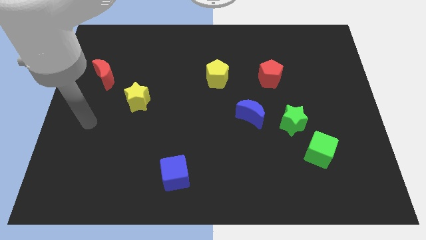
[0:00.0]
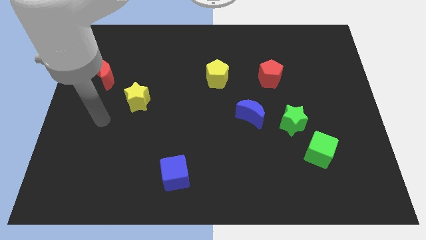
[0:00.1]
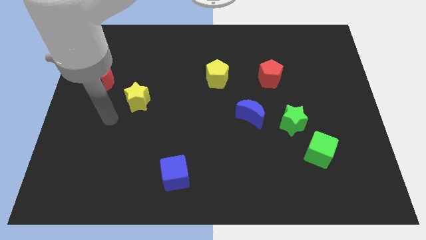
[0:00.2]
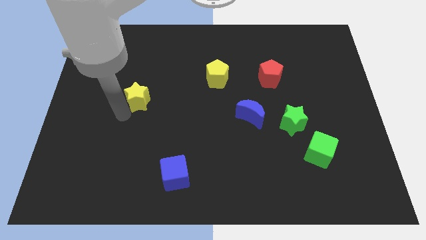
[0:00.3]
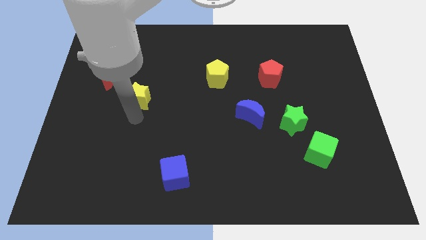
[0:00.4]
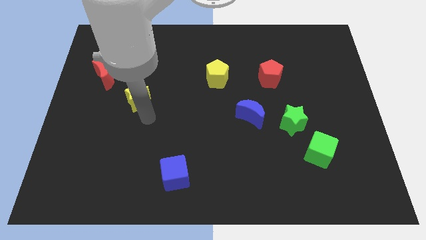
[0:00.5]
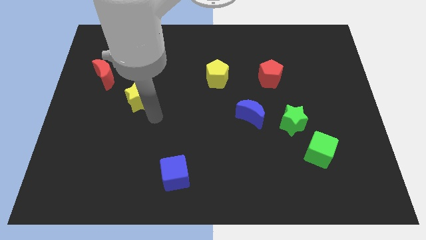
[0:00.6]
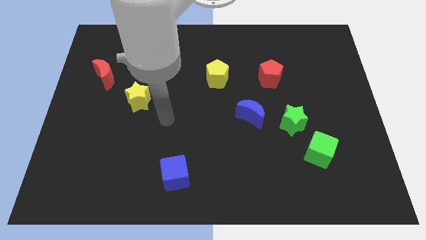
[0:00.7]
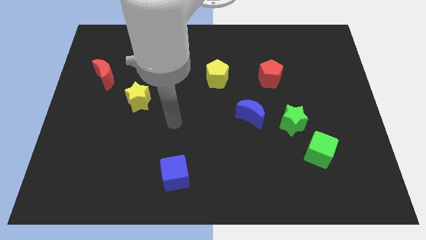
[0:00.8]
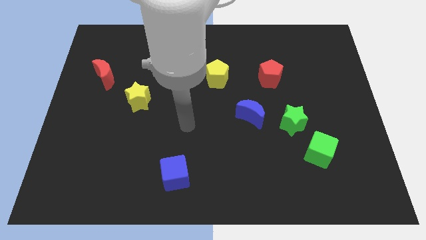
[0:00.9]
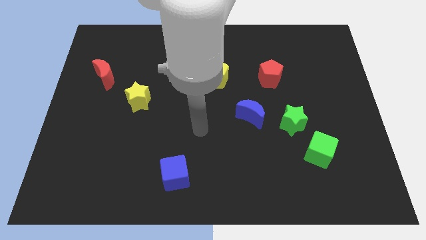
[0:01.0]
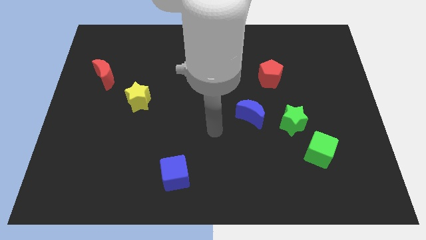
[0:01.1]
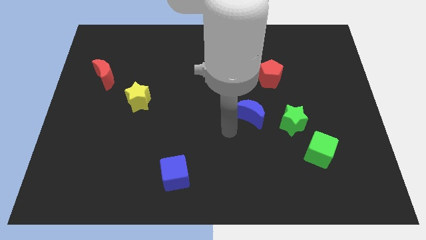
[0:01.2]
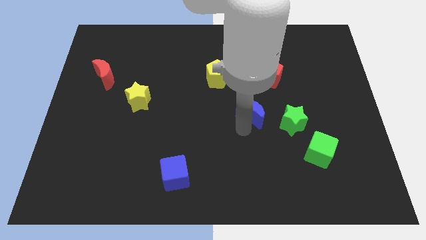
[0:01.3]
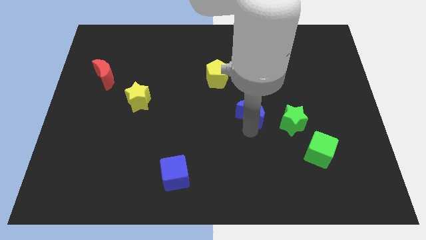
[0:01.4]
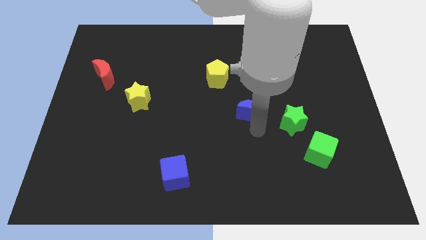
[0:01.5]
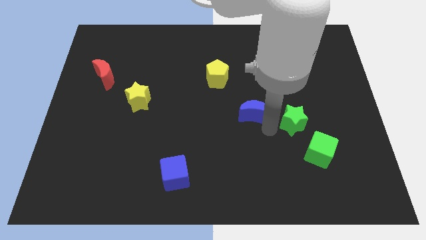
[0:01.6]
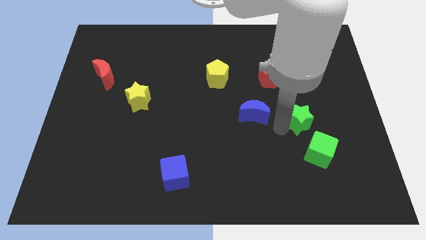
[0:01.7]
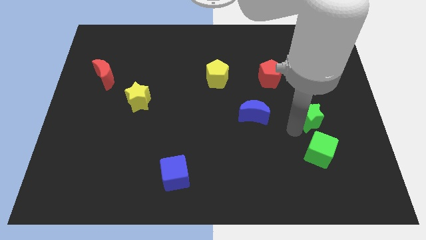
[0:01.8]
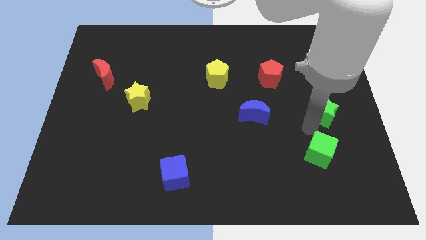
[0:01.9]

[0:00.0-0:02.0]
separate the green cube from the green star

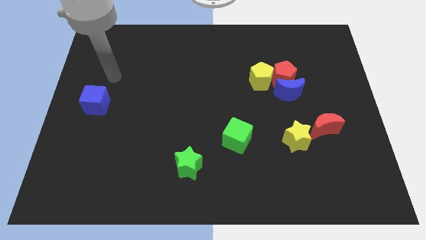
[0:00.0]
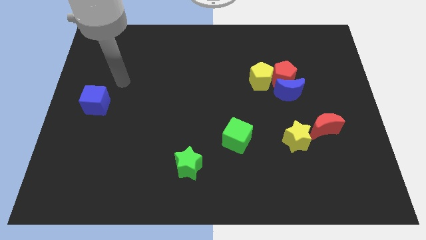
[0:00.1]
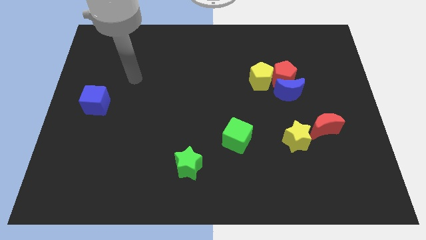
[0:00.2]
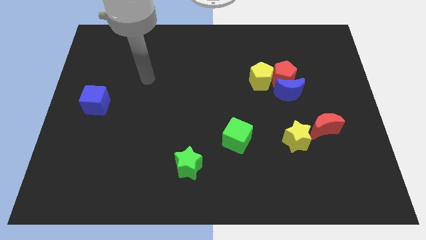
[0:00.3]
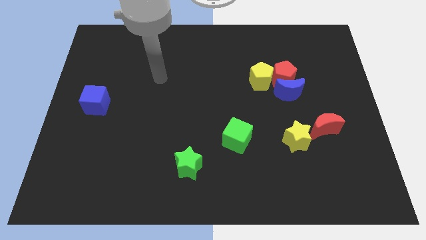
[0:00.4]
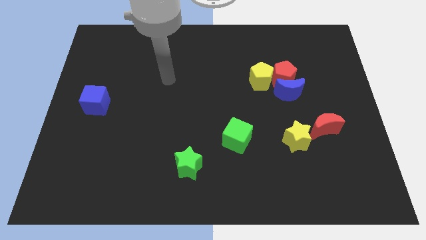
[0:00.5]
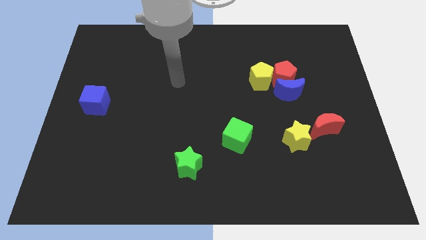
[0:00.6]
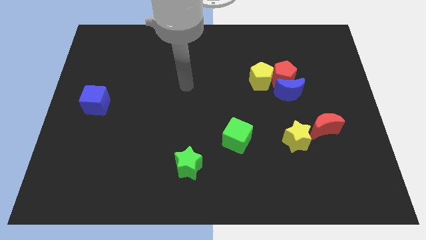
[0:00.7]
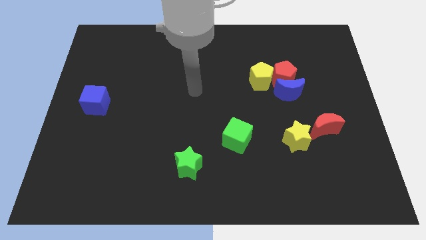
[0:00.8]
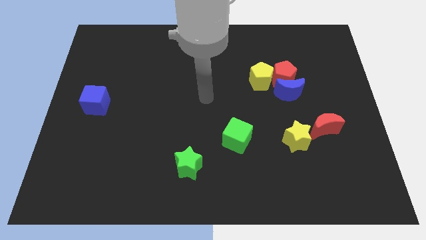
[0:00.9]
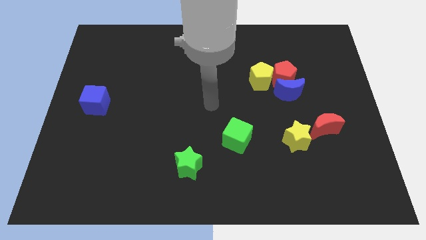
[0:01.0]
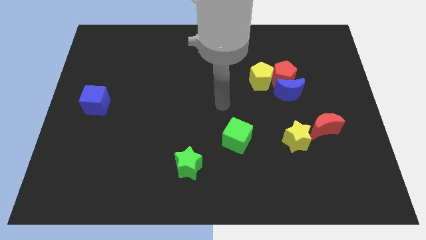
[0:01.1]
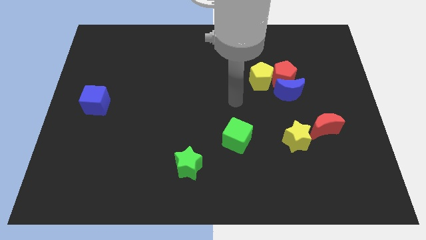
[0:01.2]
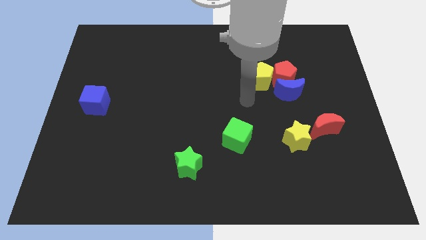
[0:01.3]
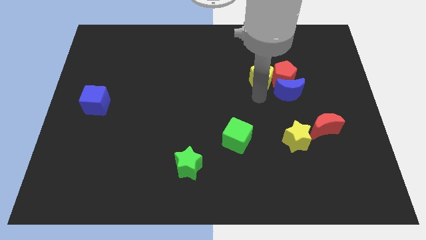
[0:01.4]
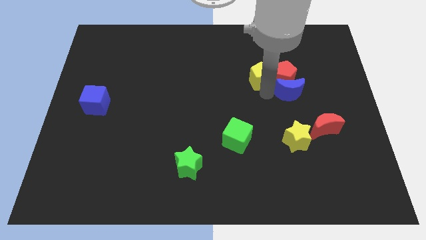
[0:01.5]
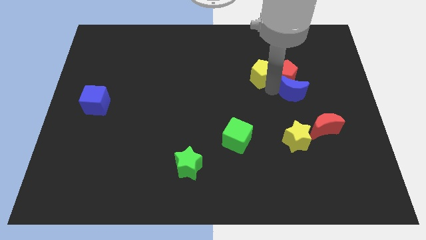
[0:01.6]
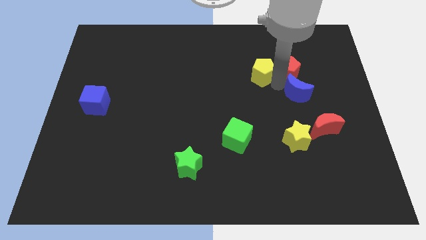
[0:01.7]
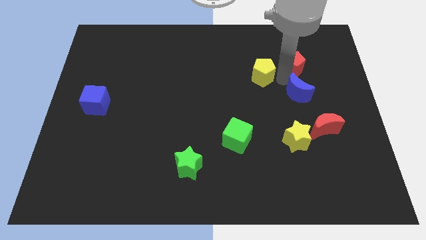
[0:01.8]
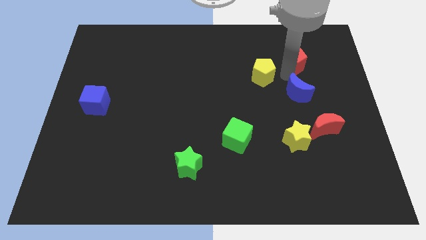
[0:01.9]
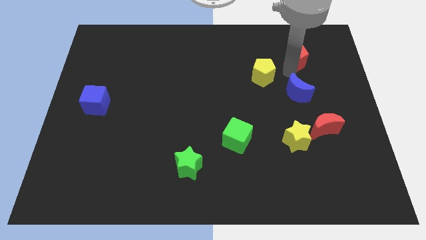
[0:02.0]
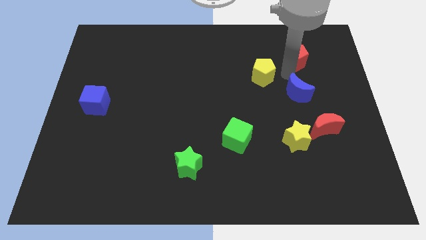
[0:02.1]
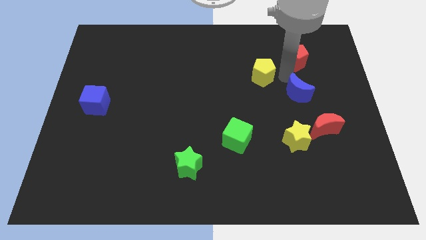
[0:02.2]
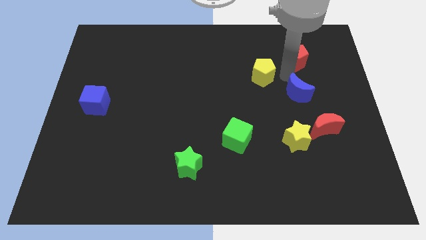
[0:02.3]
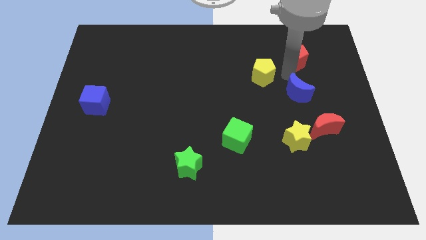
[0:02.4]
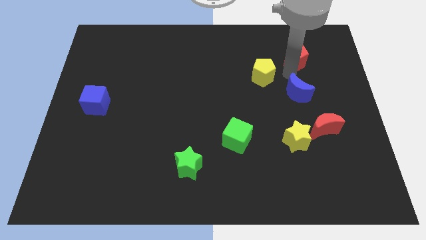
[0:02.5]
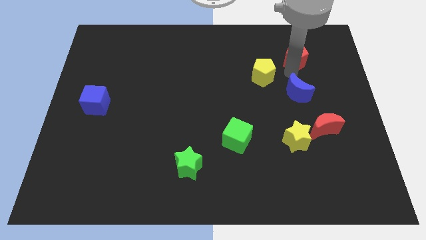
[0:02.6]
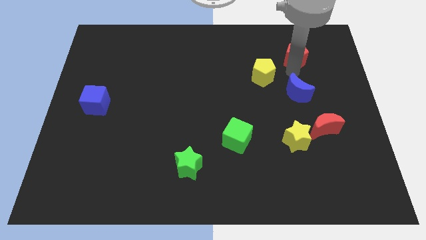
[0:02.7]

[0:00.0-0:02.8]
move the red pentagon away from the blue moon and yellow pentagon

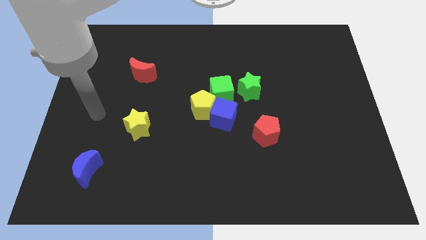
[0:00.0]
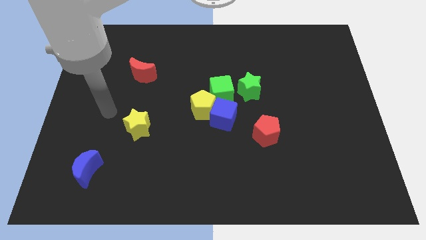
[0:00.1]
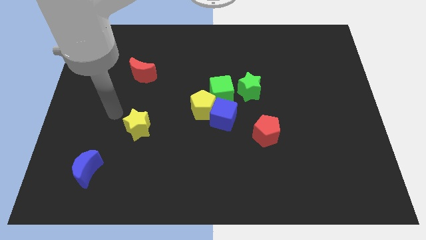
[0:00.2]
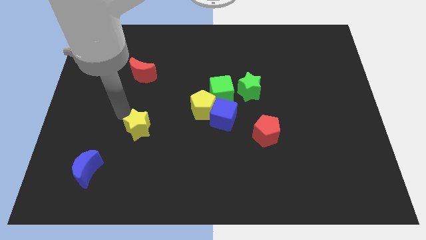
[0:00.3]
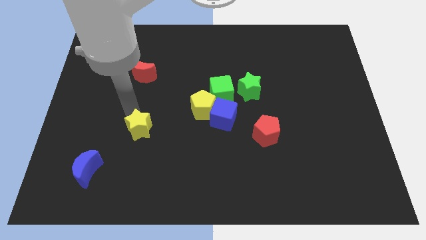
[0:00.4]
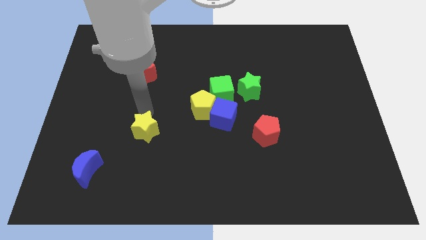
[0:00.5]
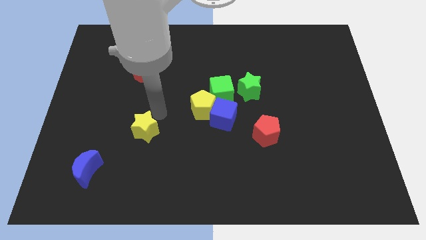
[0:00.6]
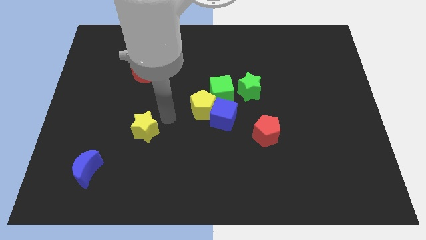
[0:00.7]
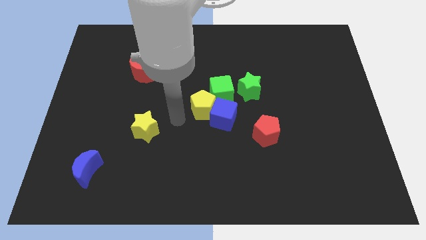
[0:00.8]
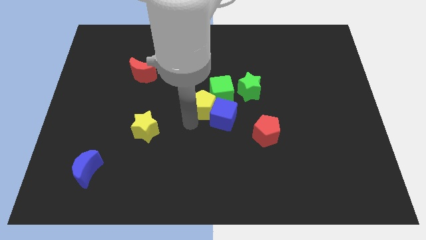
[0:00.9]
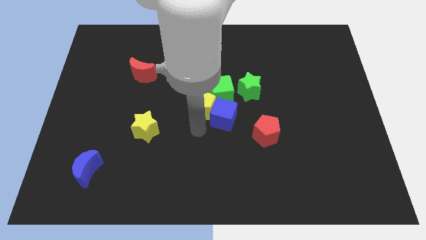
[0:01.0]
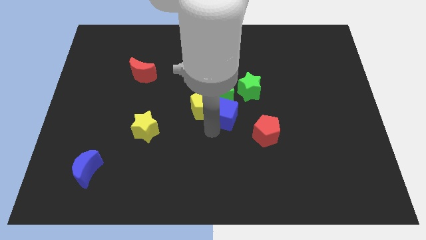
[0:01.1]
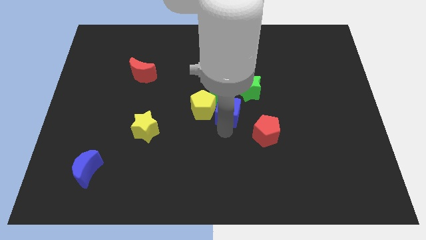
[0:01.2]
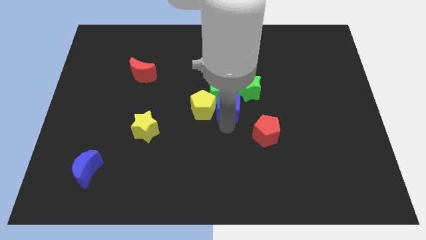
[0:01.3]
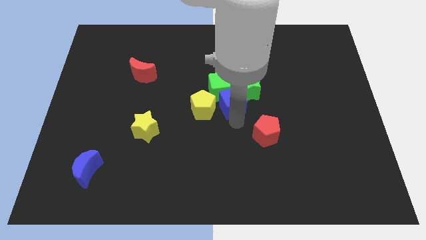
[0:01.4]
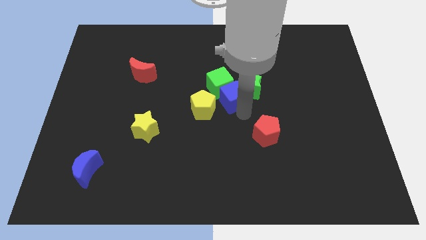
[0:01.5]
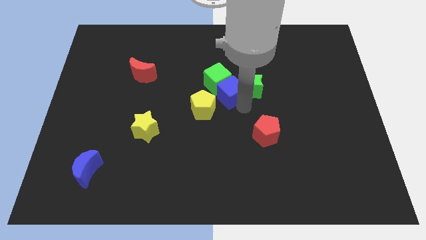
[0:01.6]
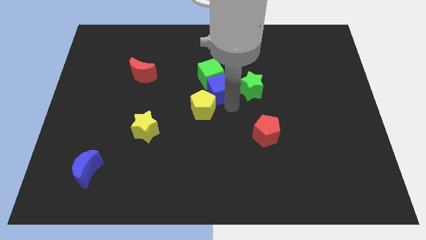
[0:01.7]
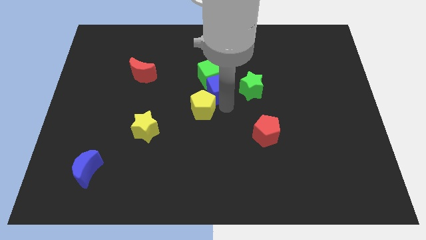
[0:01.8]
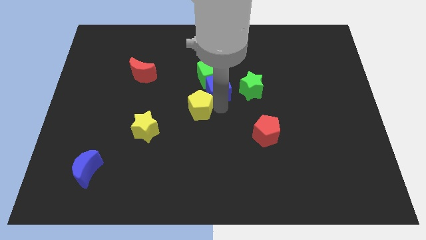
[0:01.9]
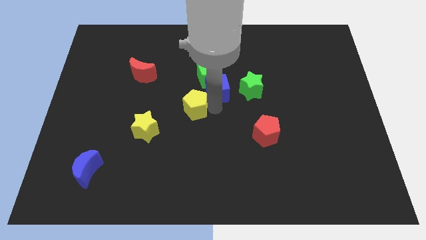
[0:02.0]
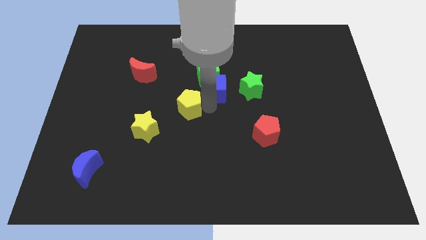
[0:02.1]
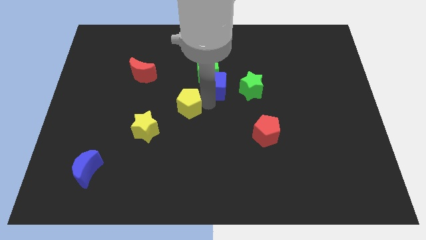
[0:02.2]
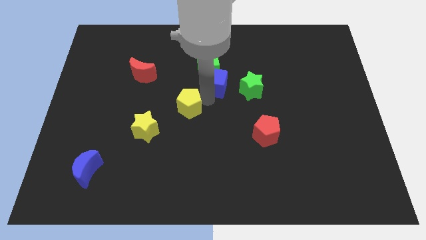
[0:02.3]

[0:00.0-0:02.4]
move the yellow pentagon away from the blue cube and green cube

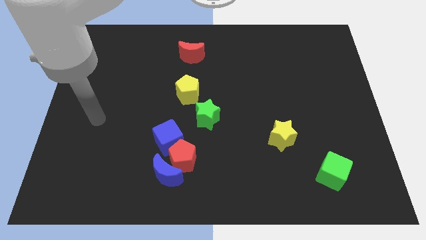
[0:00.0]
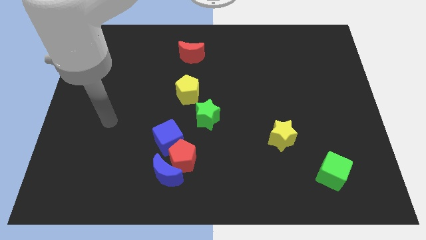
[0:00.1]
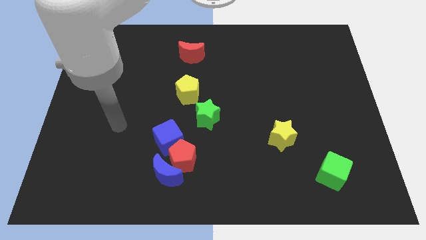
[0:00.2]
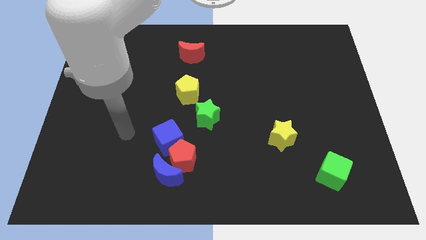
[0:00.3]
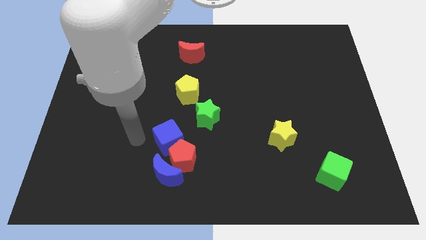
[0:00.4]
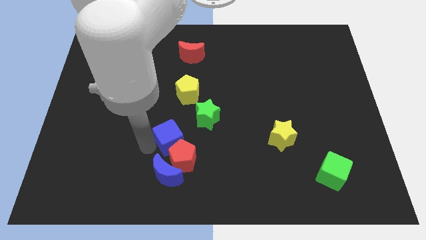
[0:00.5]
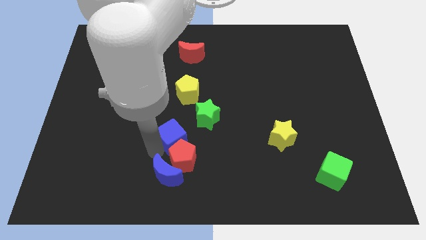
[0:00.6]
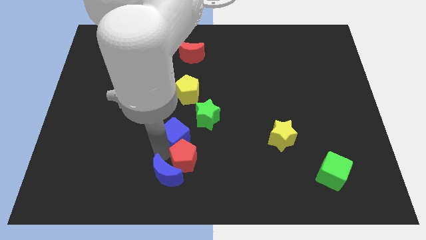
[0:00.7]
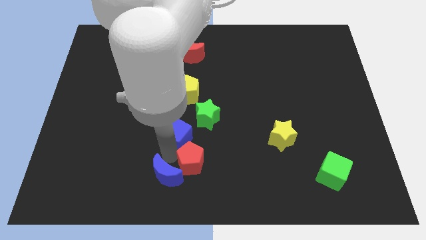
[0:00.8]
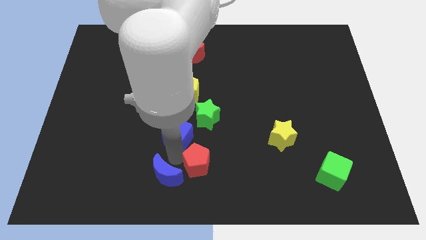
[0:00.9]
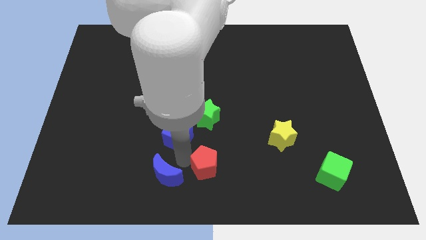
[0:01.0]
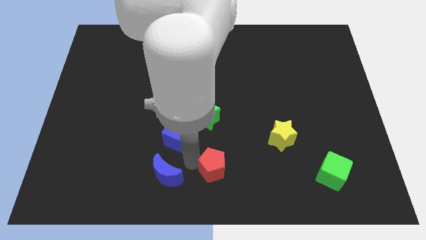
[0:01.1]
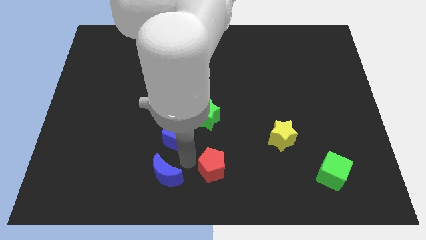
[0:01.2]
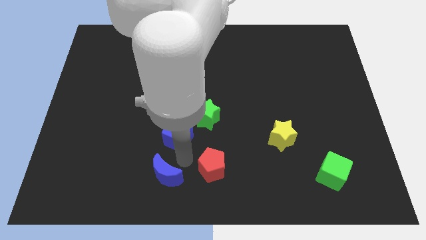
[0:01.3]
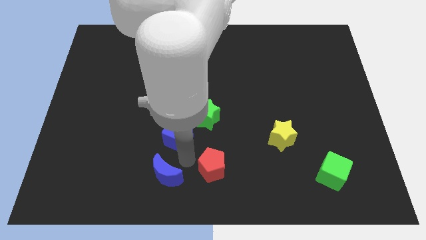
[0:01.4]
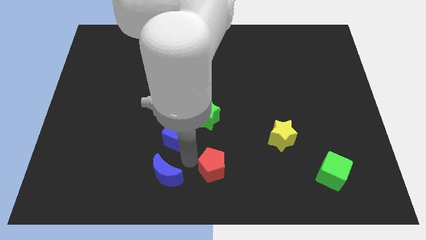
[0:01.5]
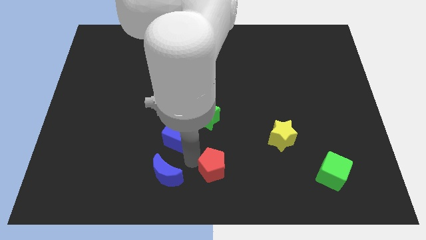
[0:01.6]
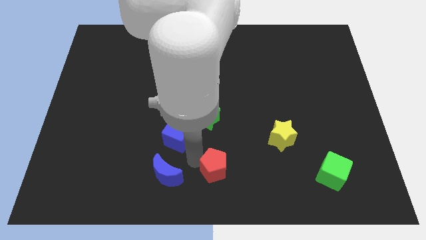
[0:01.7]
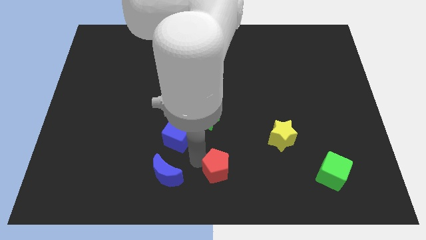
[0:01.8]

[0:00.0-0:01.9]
pull the red pentagon apart from the blue moon and blue cube

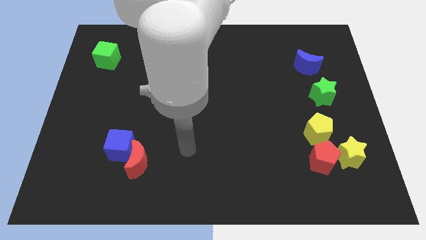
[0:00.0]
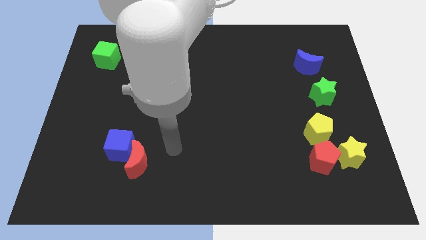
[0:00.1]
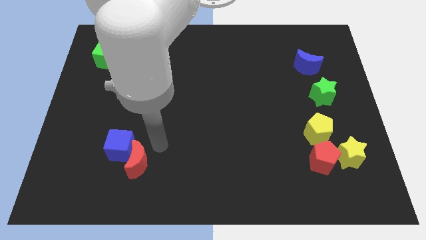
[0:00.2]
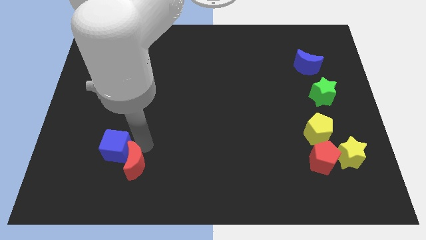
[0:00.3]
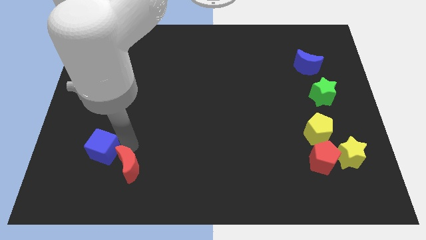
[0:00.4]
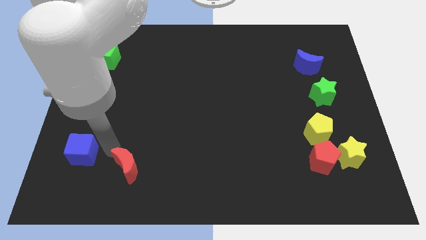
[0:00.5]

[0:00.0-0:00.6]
separate the red moon from the blue cube
